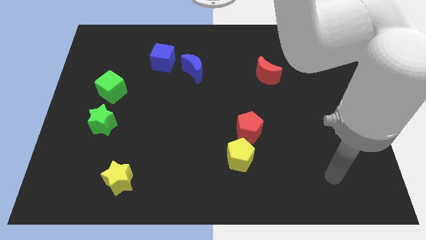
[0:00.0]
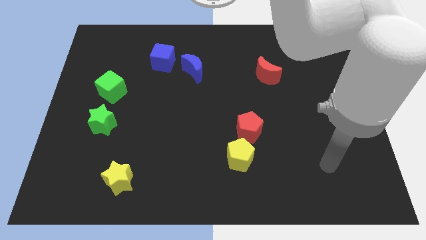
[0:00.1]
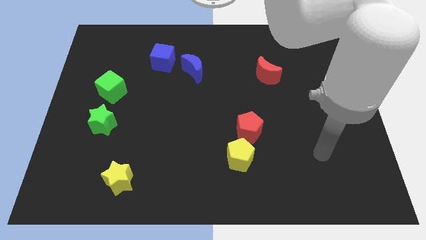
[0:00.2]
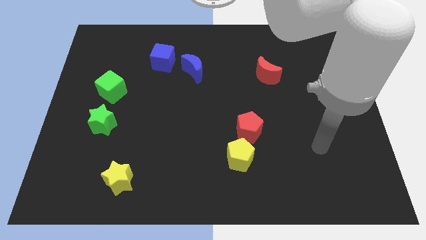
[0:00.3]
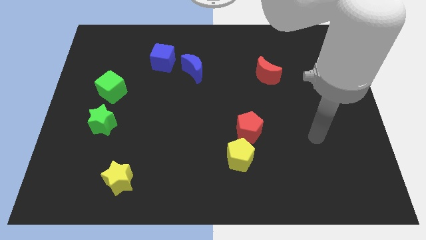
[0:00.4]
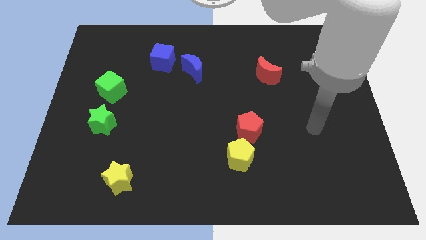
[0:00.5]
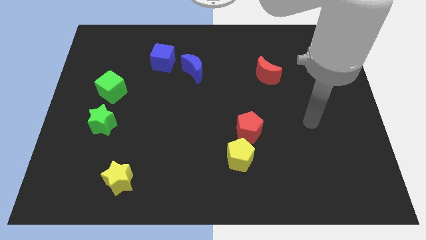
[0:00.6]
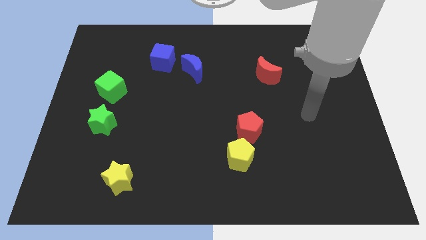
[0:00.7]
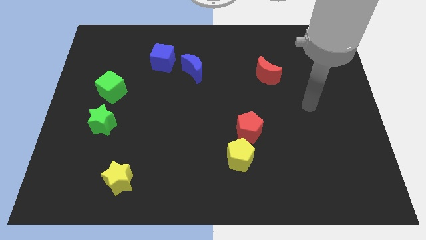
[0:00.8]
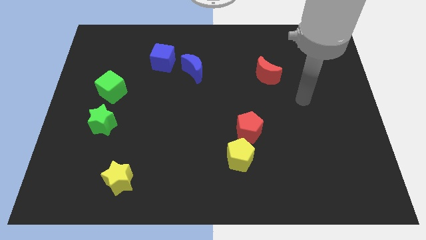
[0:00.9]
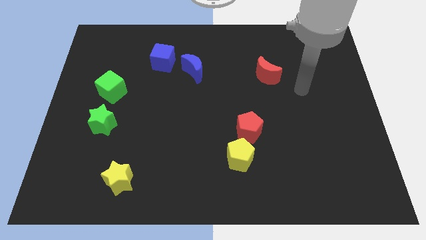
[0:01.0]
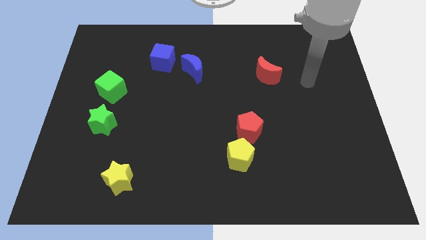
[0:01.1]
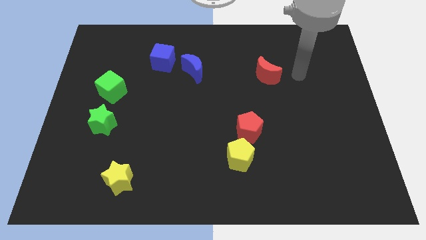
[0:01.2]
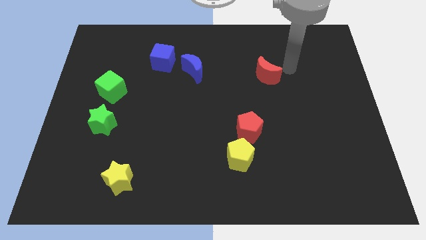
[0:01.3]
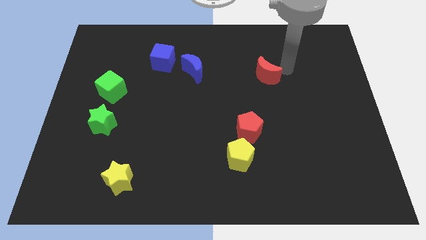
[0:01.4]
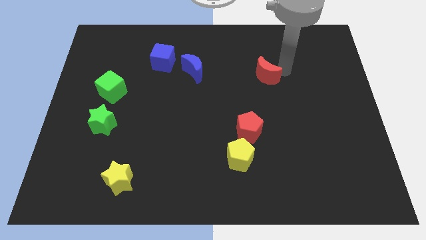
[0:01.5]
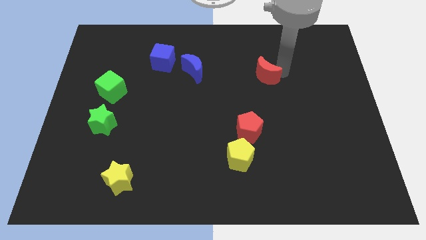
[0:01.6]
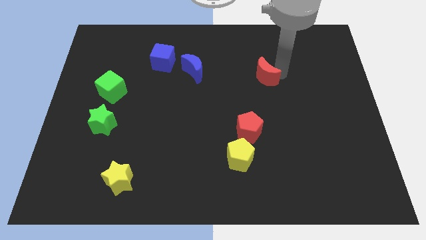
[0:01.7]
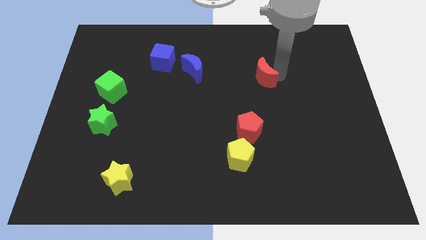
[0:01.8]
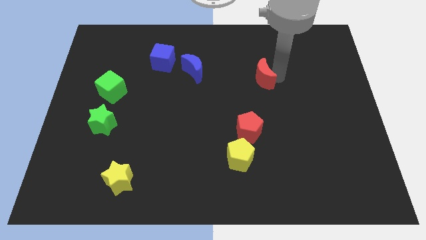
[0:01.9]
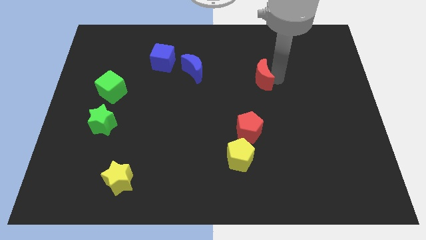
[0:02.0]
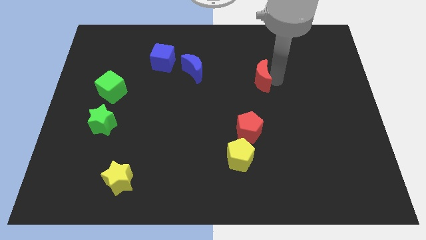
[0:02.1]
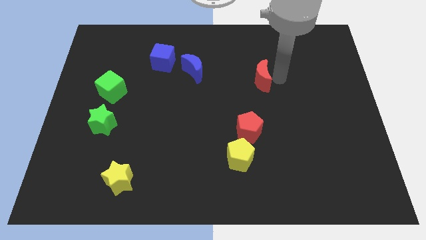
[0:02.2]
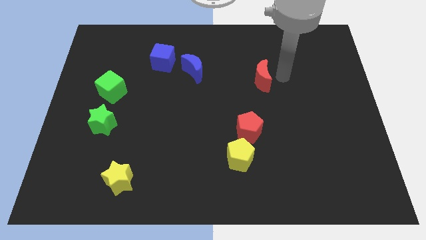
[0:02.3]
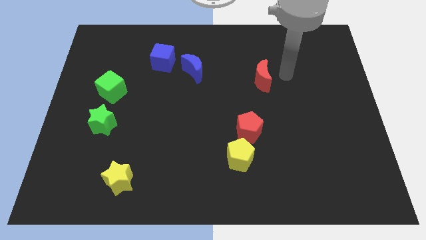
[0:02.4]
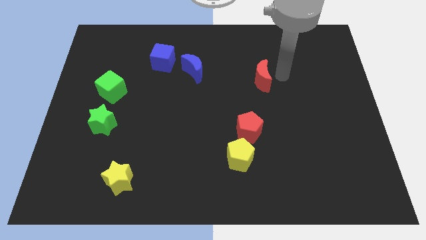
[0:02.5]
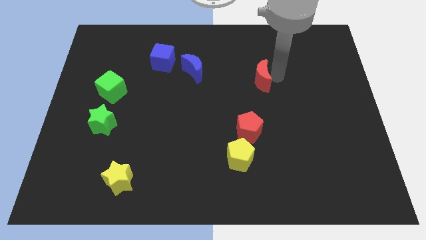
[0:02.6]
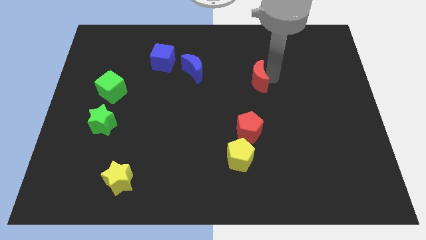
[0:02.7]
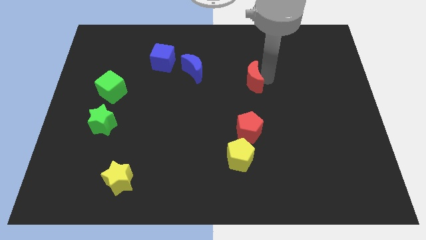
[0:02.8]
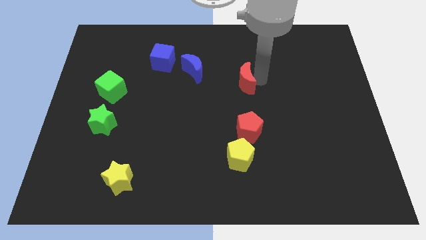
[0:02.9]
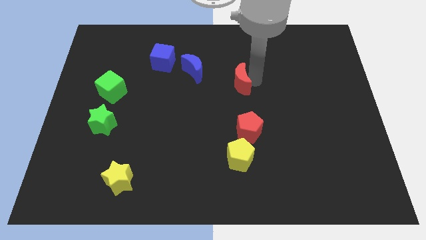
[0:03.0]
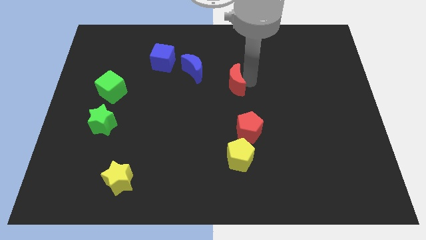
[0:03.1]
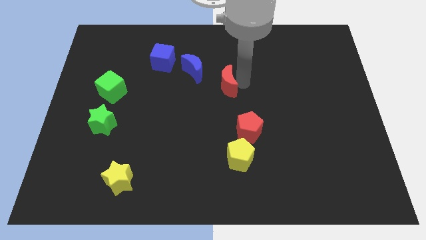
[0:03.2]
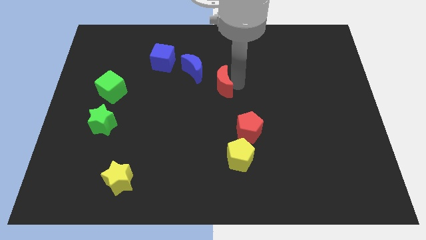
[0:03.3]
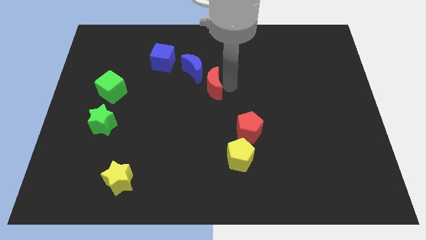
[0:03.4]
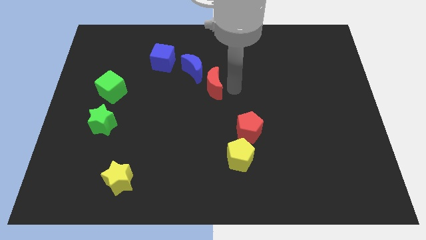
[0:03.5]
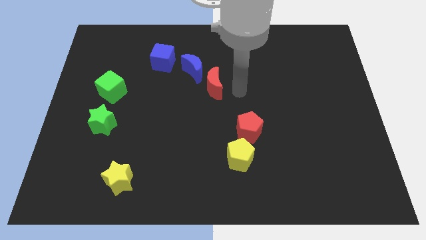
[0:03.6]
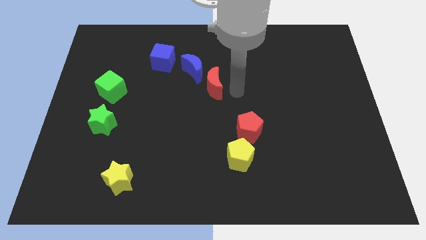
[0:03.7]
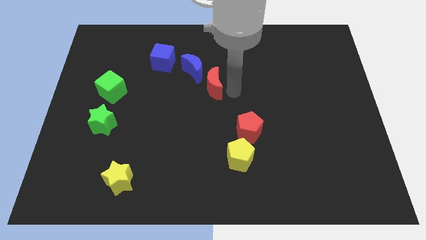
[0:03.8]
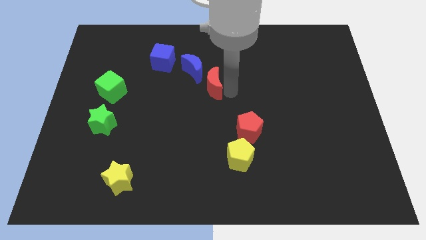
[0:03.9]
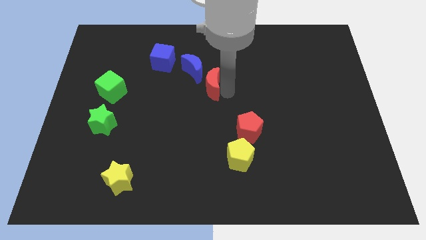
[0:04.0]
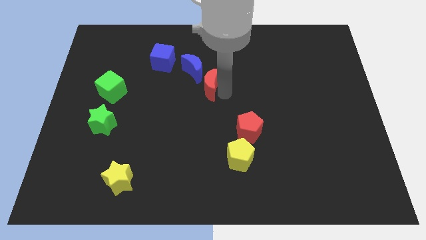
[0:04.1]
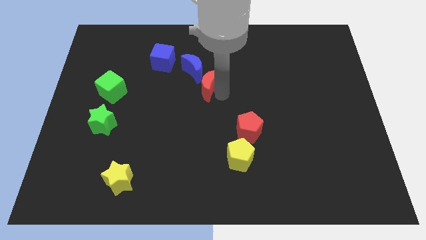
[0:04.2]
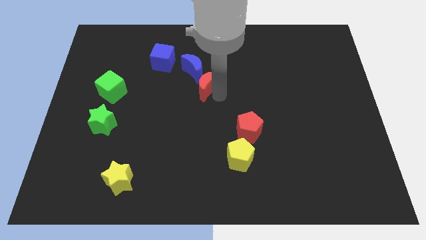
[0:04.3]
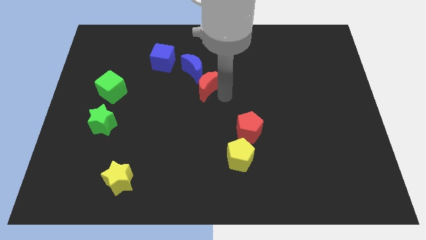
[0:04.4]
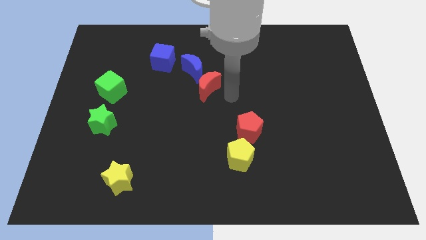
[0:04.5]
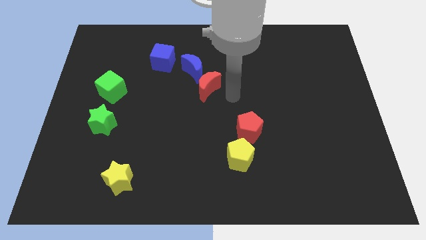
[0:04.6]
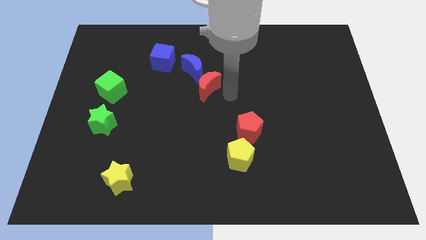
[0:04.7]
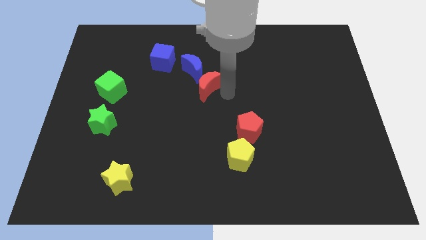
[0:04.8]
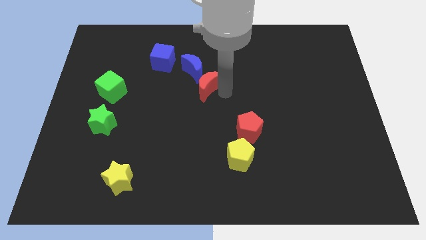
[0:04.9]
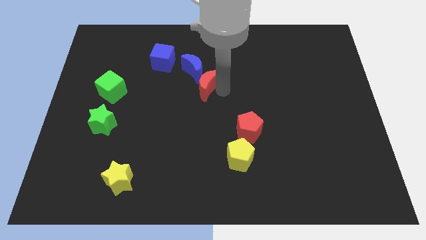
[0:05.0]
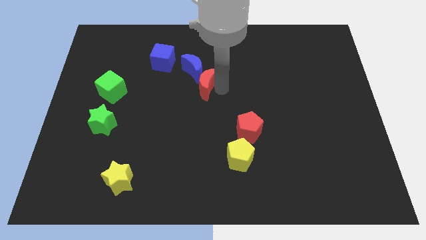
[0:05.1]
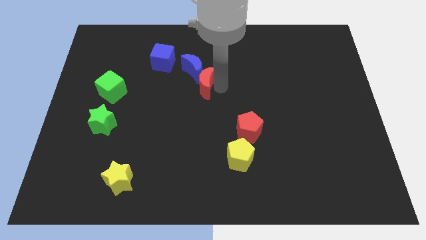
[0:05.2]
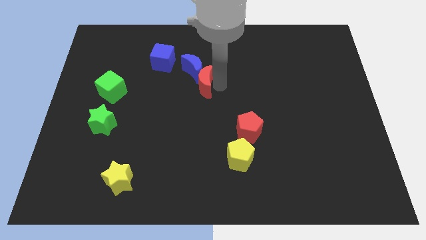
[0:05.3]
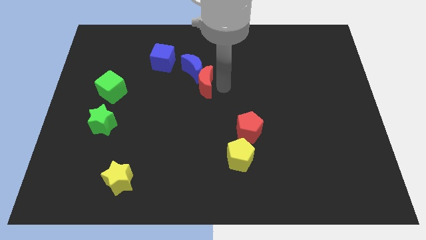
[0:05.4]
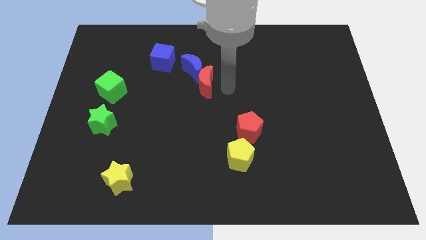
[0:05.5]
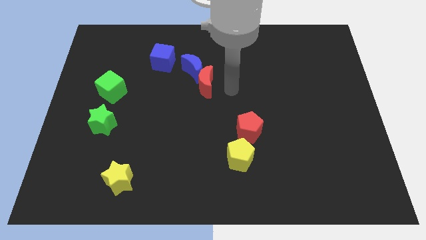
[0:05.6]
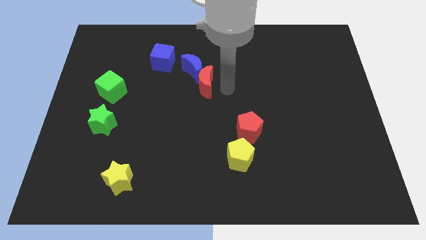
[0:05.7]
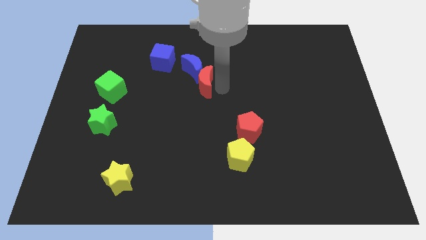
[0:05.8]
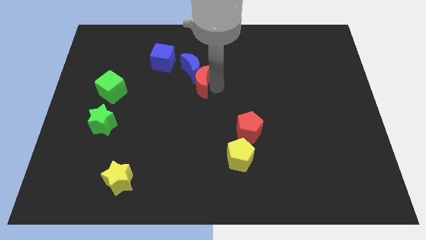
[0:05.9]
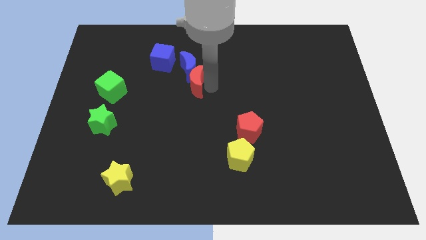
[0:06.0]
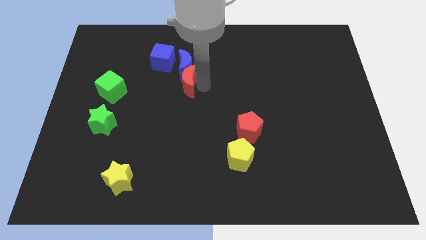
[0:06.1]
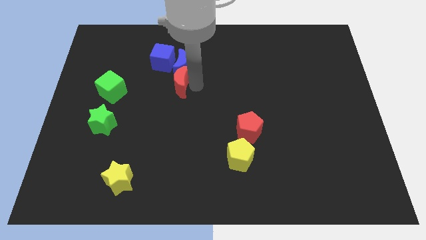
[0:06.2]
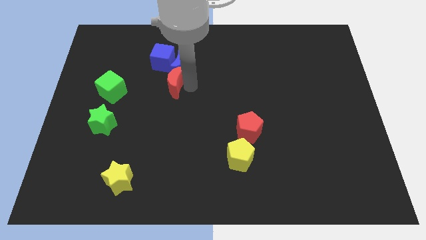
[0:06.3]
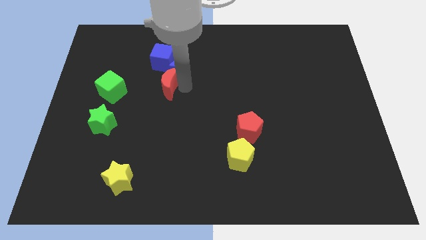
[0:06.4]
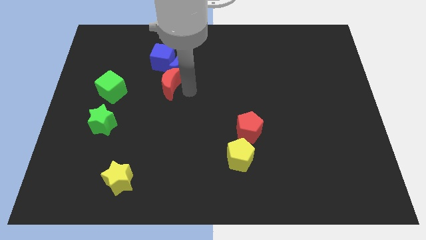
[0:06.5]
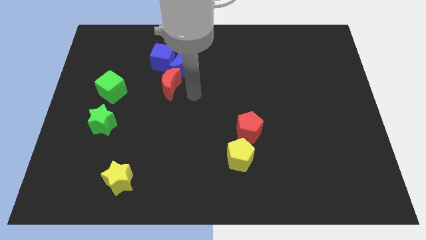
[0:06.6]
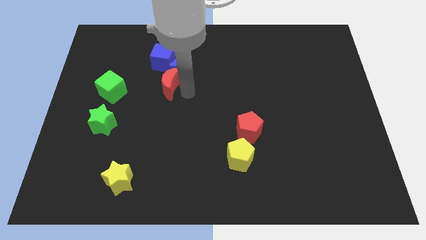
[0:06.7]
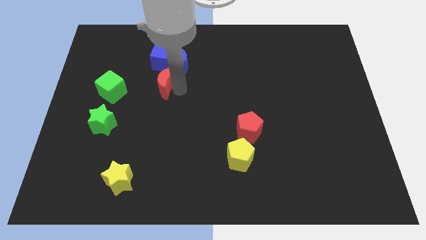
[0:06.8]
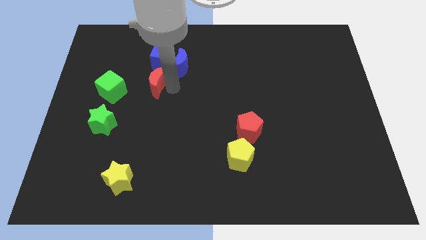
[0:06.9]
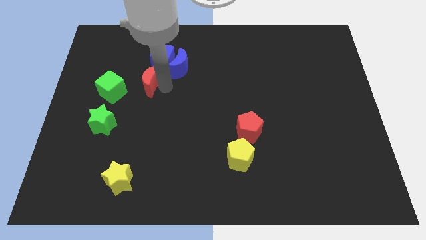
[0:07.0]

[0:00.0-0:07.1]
move the red moon to the bottom left side of the blue cube
